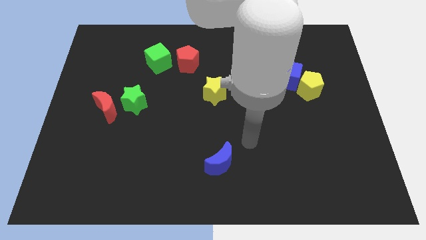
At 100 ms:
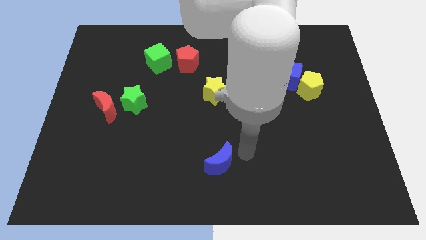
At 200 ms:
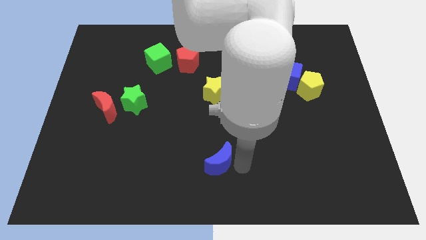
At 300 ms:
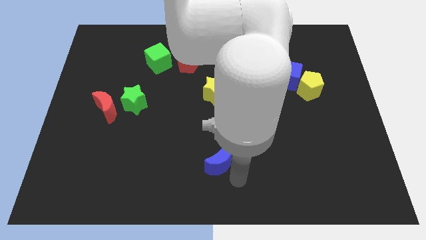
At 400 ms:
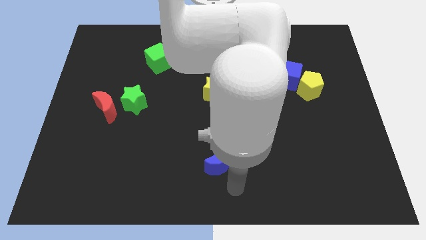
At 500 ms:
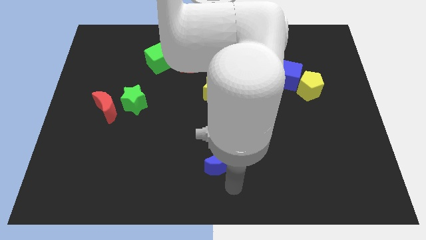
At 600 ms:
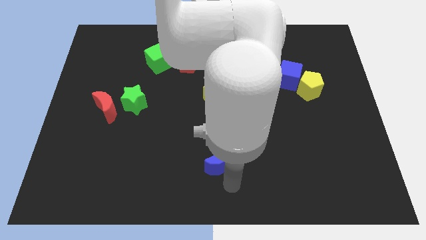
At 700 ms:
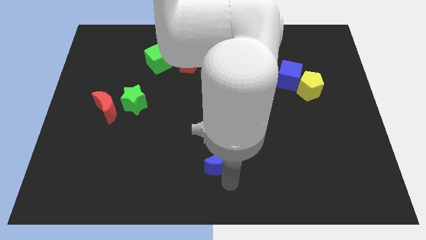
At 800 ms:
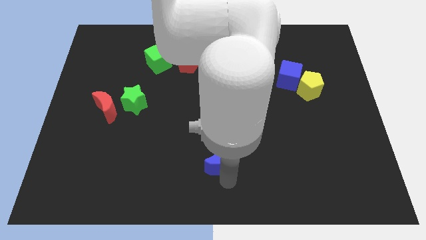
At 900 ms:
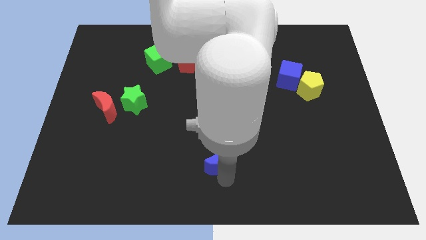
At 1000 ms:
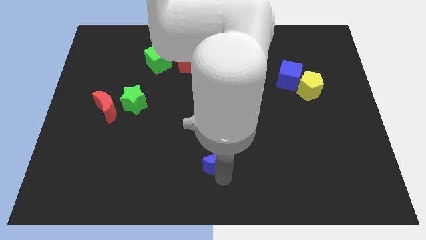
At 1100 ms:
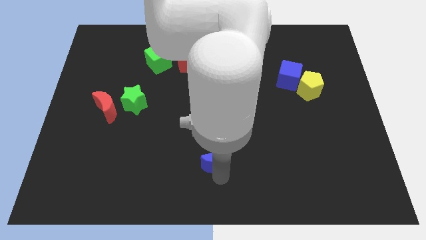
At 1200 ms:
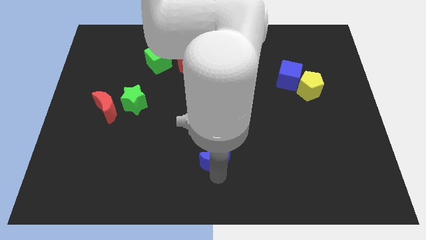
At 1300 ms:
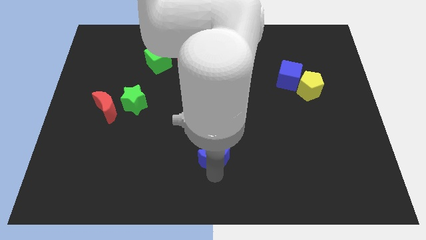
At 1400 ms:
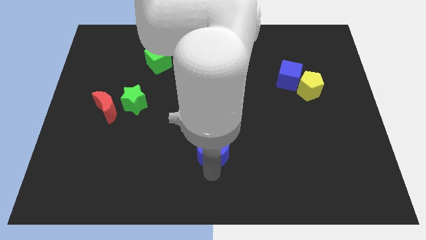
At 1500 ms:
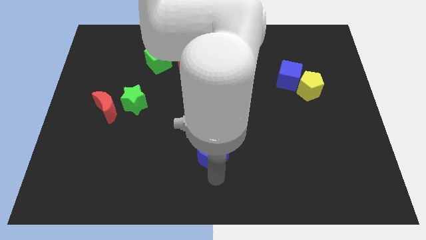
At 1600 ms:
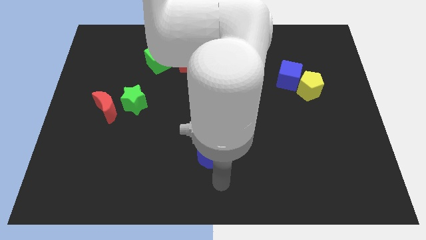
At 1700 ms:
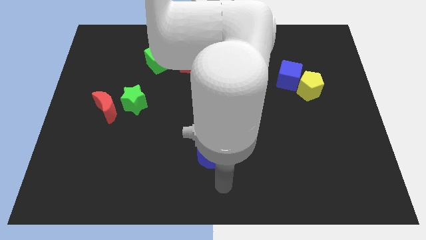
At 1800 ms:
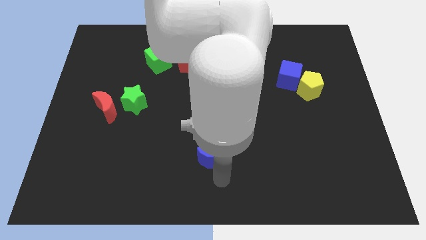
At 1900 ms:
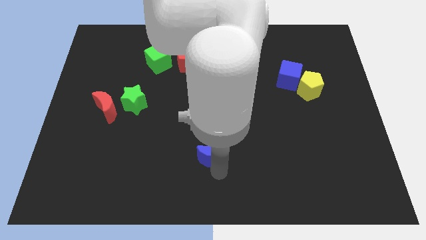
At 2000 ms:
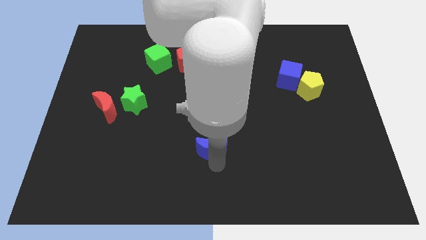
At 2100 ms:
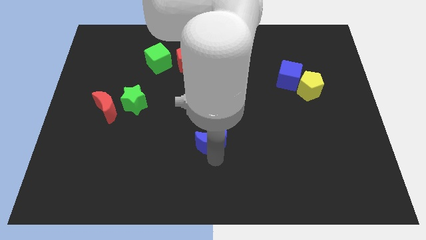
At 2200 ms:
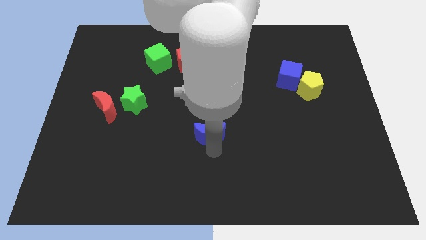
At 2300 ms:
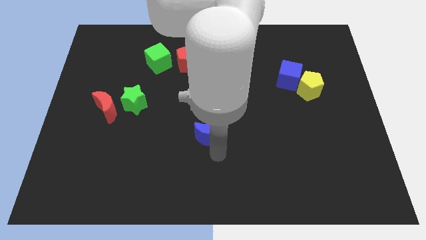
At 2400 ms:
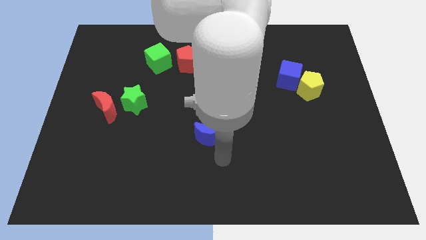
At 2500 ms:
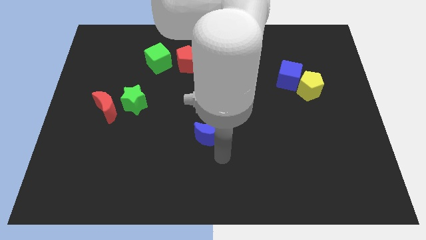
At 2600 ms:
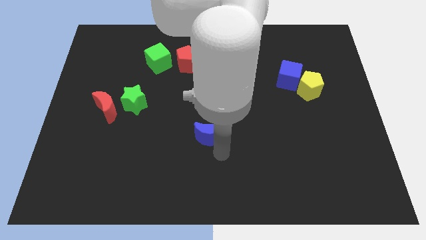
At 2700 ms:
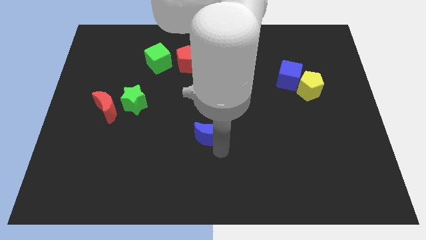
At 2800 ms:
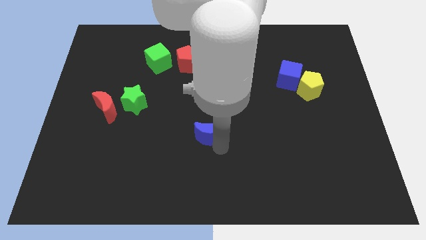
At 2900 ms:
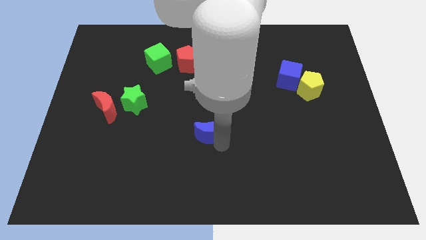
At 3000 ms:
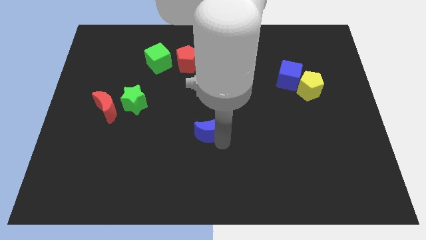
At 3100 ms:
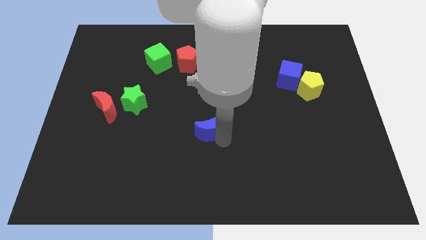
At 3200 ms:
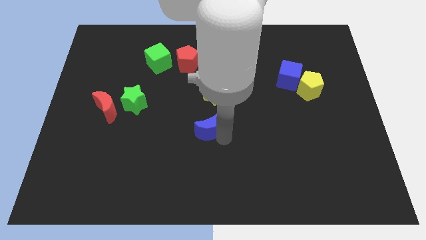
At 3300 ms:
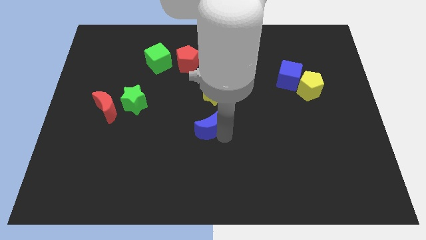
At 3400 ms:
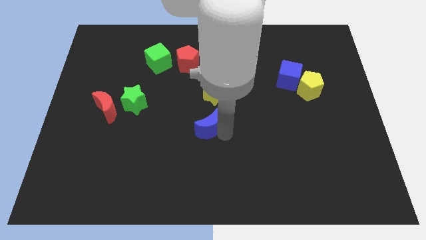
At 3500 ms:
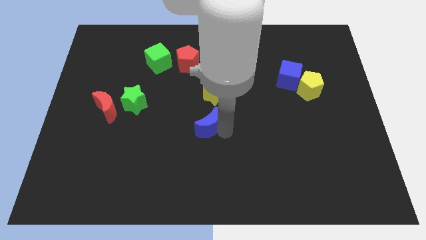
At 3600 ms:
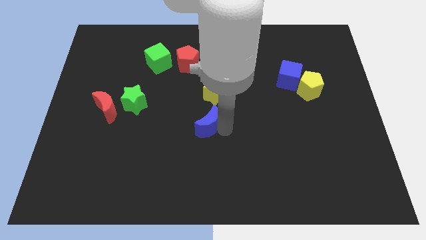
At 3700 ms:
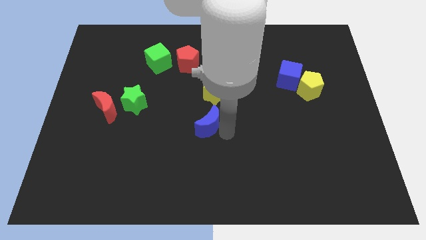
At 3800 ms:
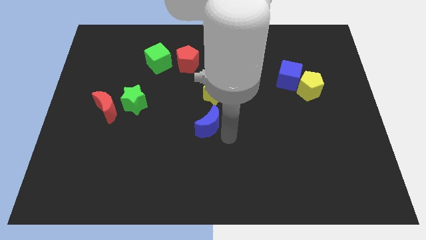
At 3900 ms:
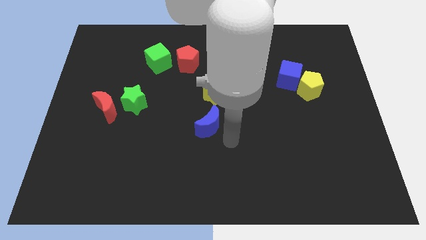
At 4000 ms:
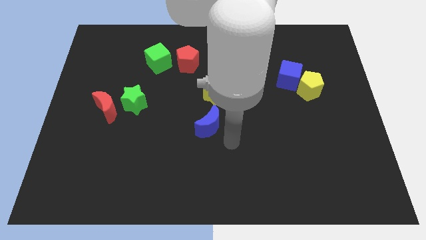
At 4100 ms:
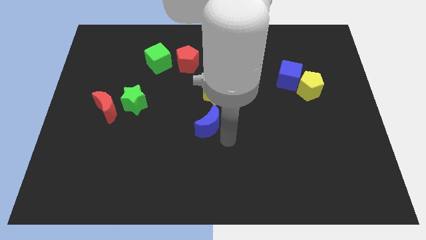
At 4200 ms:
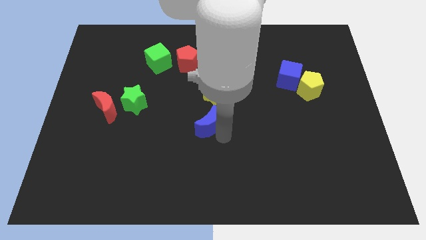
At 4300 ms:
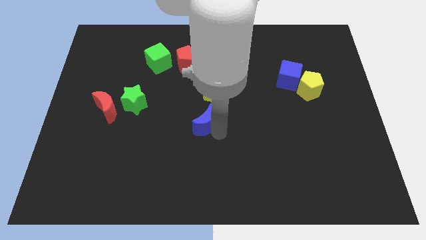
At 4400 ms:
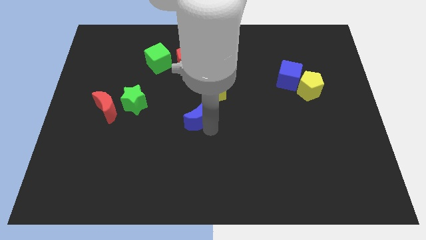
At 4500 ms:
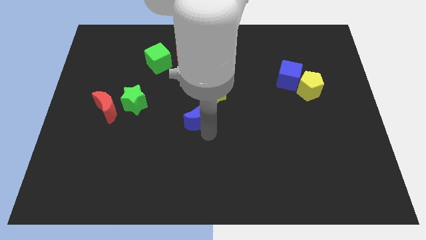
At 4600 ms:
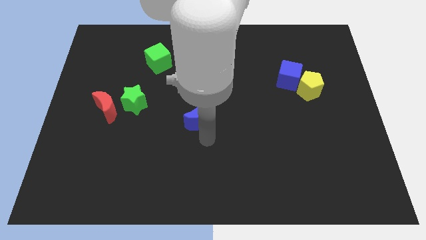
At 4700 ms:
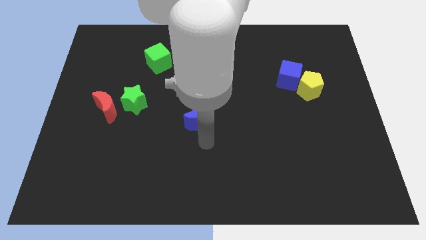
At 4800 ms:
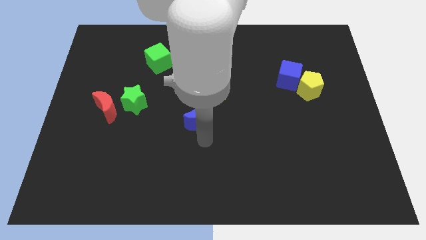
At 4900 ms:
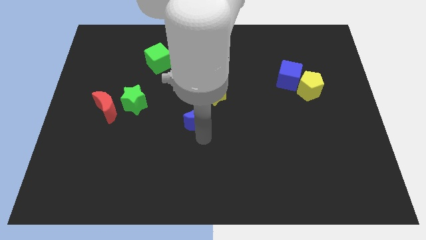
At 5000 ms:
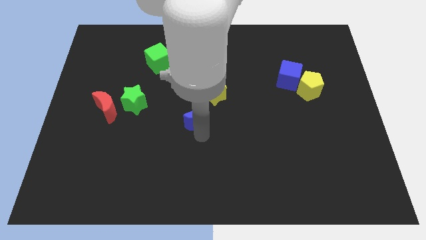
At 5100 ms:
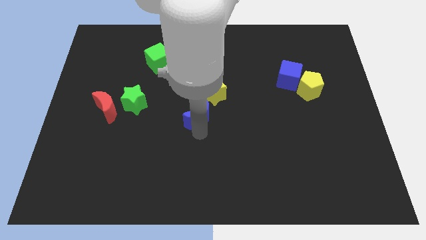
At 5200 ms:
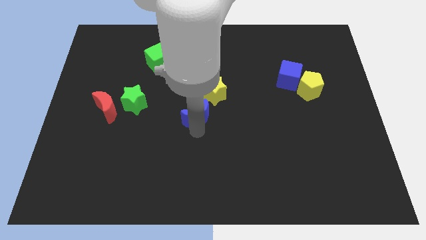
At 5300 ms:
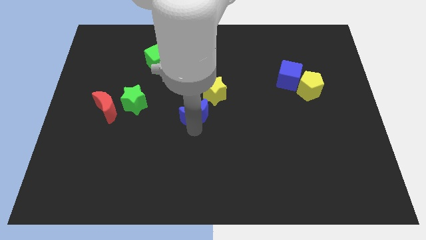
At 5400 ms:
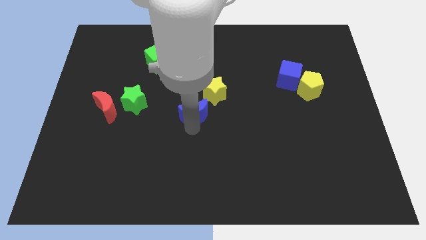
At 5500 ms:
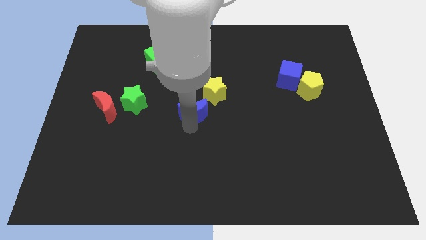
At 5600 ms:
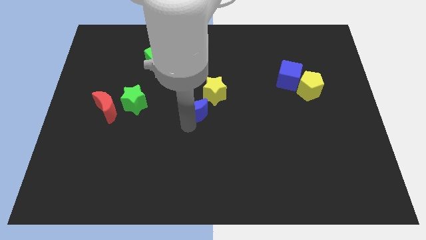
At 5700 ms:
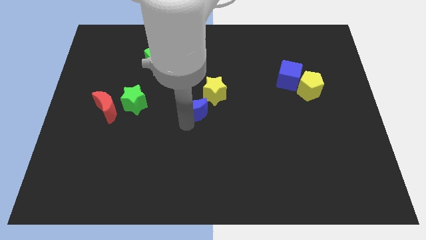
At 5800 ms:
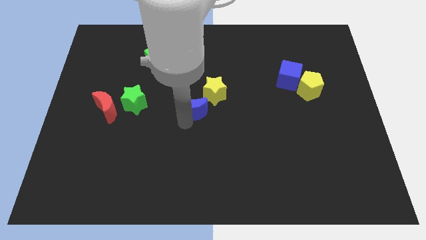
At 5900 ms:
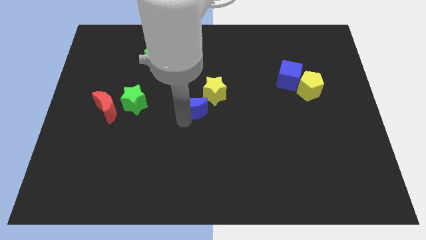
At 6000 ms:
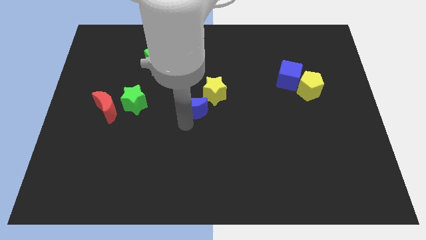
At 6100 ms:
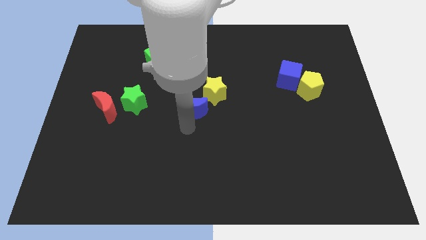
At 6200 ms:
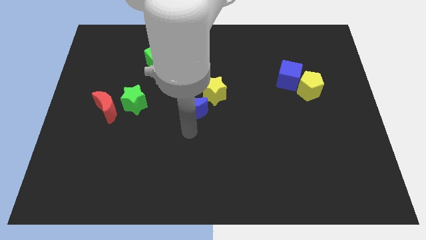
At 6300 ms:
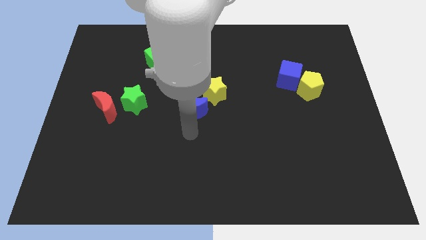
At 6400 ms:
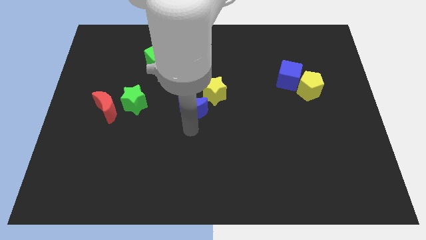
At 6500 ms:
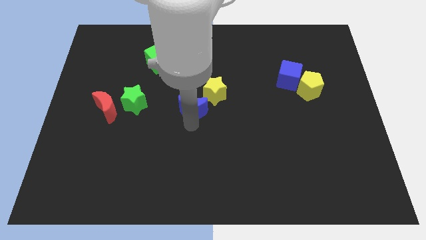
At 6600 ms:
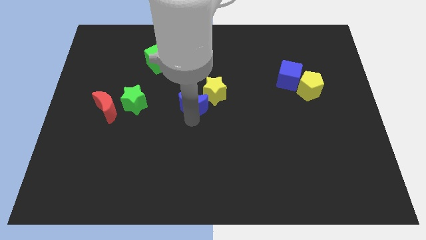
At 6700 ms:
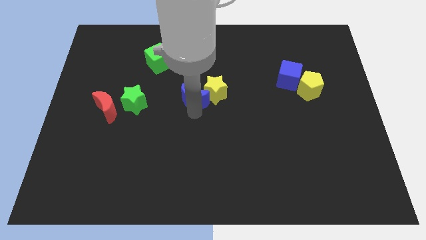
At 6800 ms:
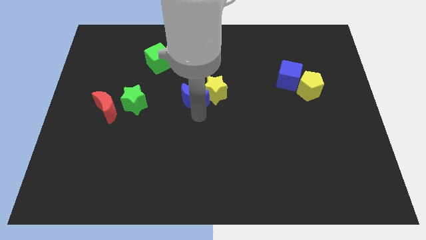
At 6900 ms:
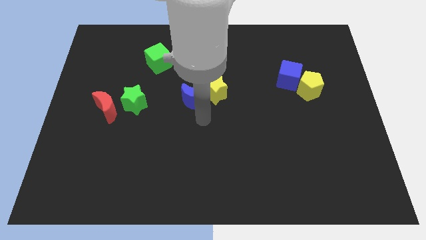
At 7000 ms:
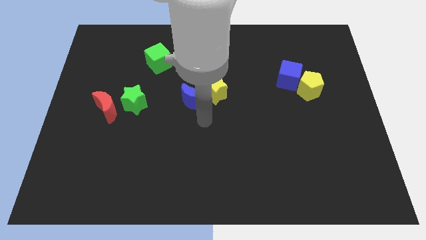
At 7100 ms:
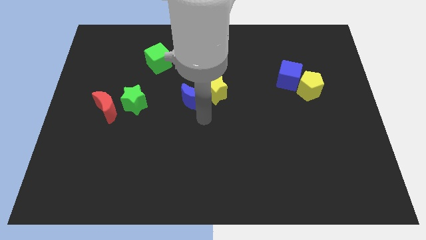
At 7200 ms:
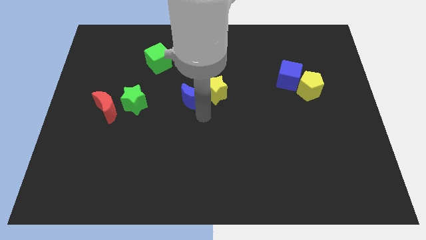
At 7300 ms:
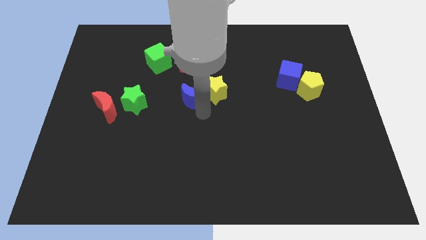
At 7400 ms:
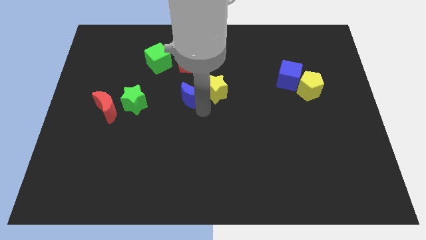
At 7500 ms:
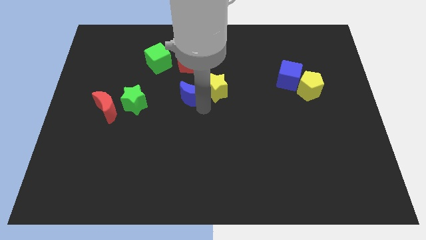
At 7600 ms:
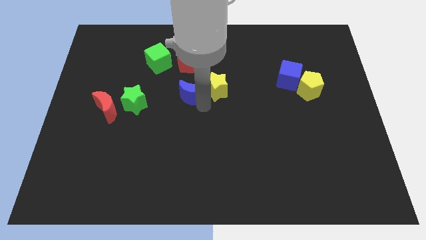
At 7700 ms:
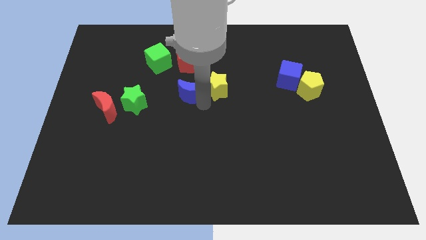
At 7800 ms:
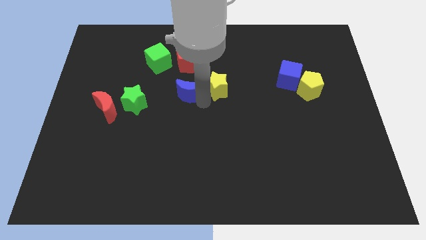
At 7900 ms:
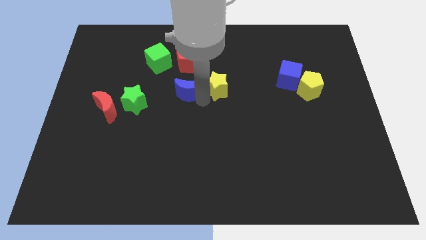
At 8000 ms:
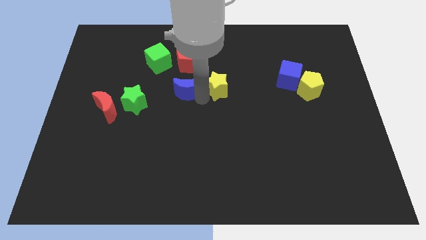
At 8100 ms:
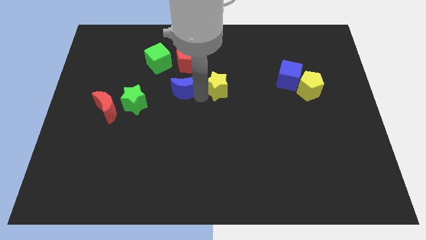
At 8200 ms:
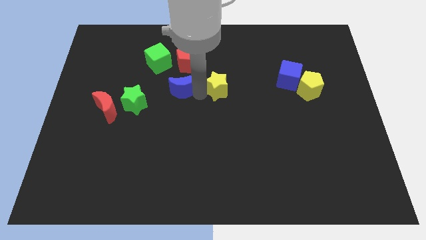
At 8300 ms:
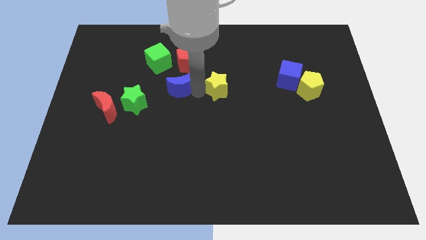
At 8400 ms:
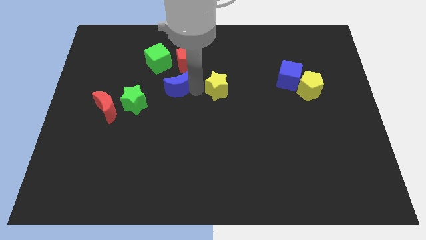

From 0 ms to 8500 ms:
move the blue moon to the bottom left of the red pentagon
